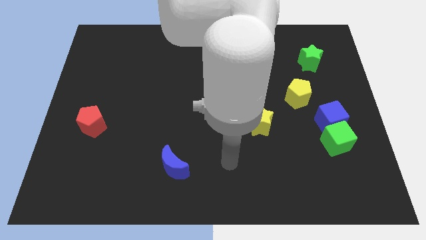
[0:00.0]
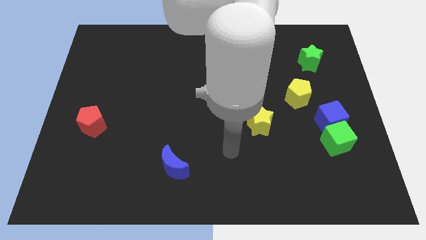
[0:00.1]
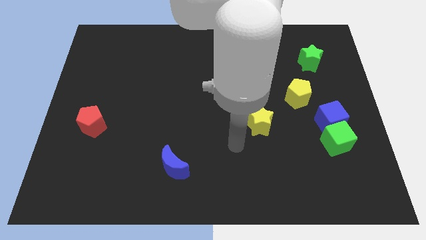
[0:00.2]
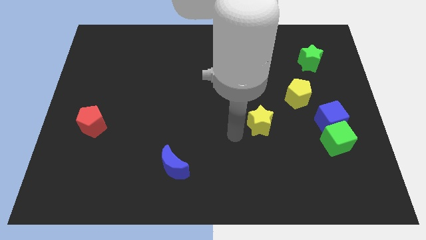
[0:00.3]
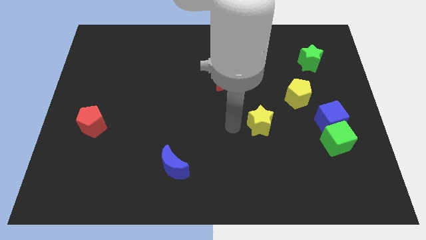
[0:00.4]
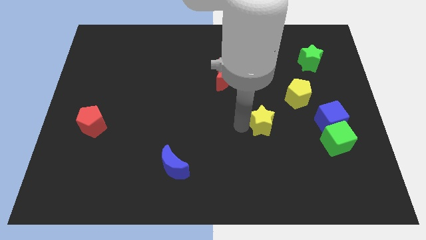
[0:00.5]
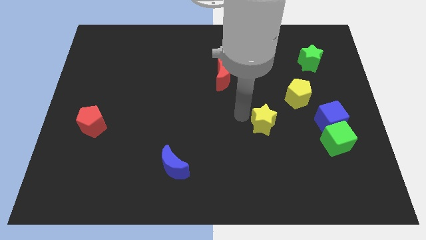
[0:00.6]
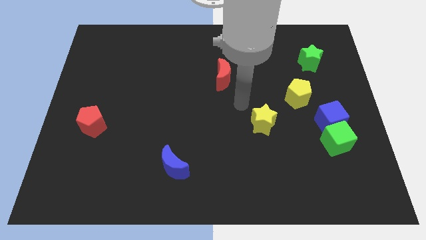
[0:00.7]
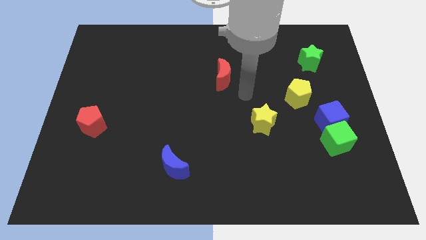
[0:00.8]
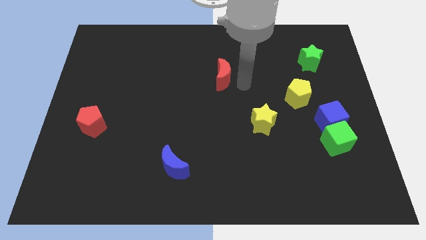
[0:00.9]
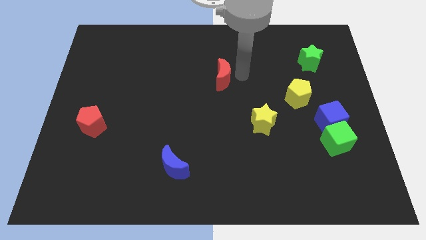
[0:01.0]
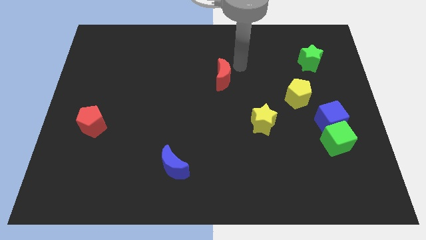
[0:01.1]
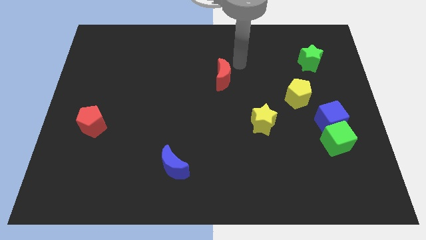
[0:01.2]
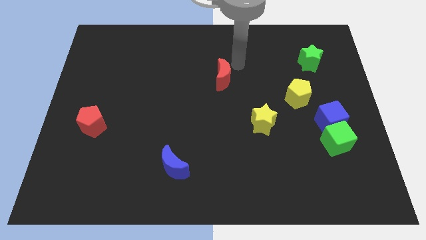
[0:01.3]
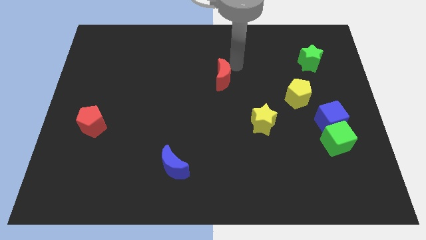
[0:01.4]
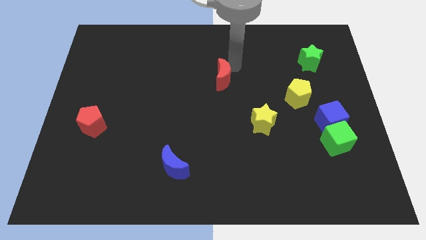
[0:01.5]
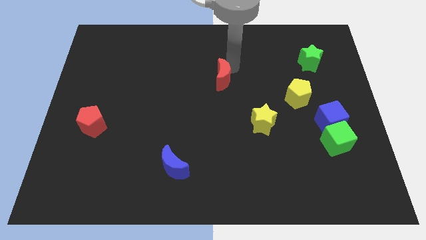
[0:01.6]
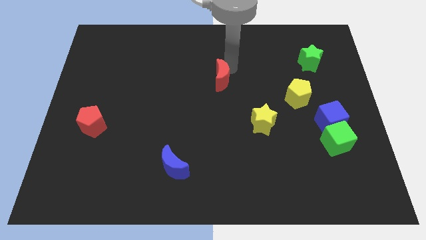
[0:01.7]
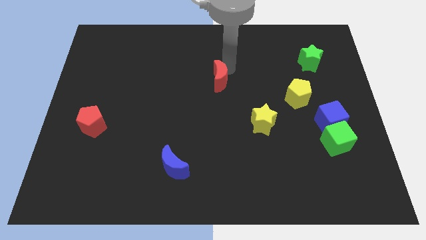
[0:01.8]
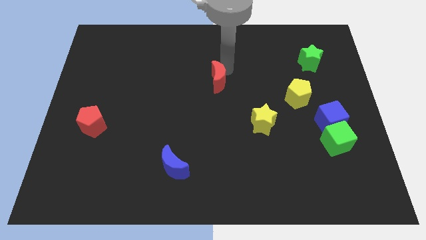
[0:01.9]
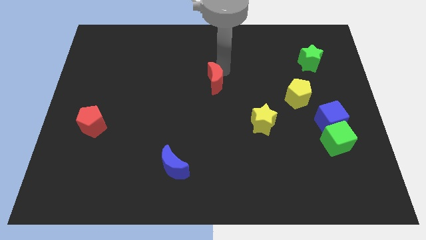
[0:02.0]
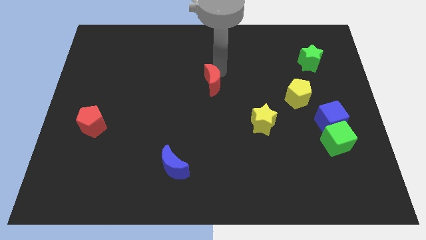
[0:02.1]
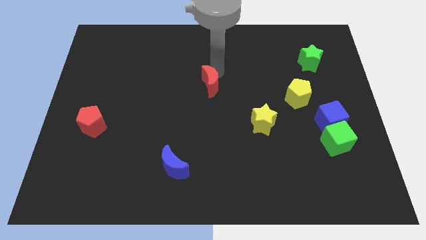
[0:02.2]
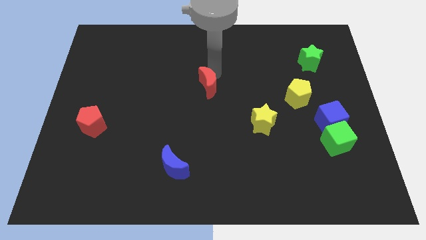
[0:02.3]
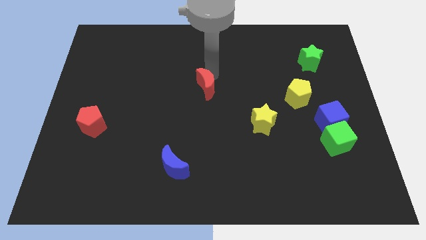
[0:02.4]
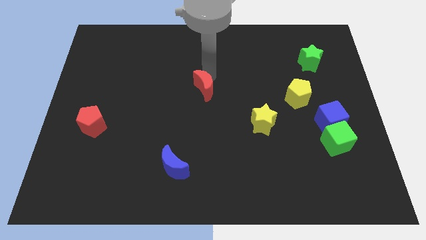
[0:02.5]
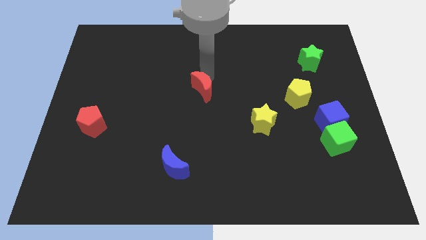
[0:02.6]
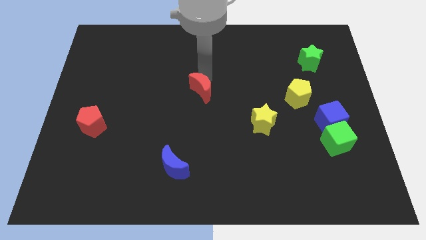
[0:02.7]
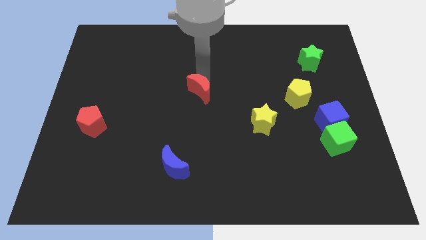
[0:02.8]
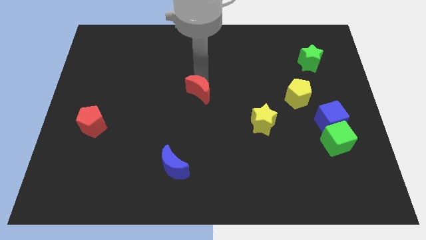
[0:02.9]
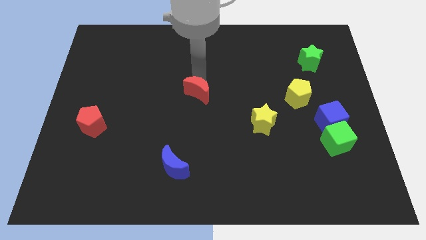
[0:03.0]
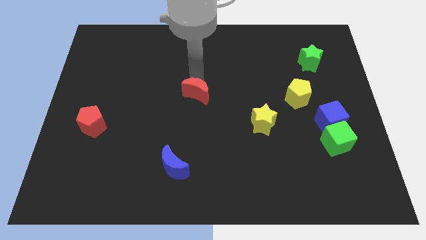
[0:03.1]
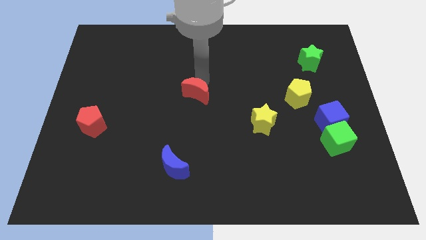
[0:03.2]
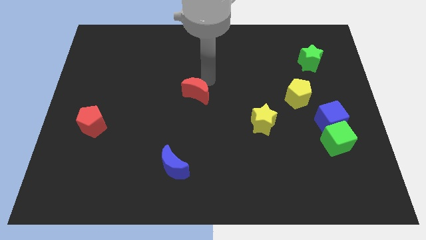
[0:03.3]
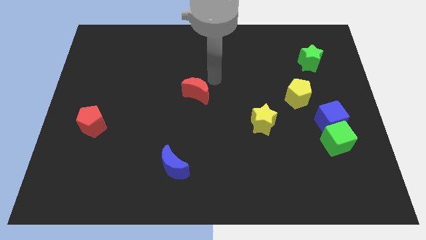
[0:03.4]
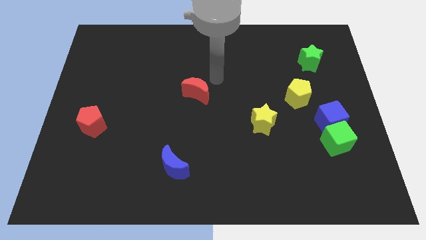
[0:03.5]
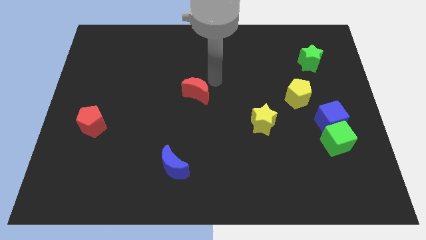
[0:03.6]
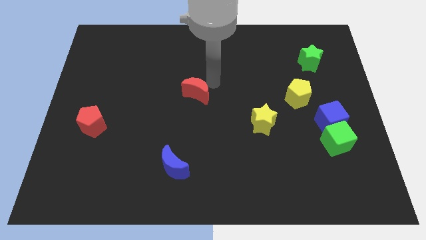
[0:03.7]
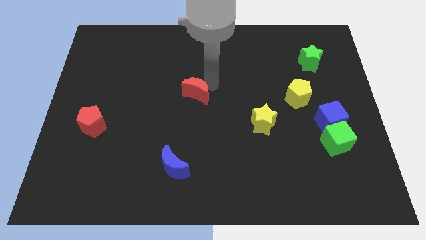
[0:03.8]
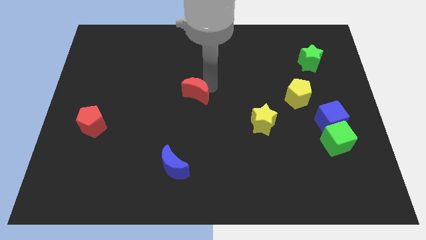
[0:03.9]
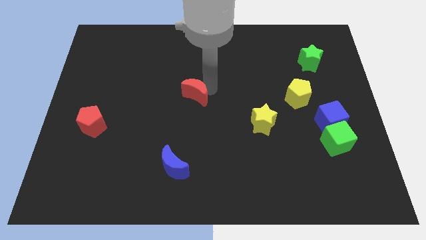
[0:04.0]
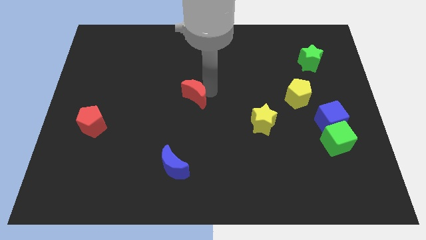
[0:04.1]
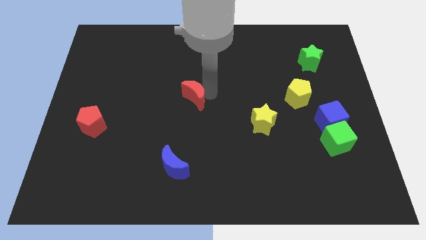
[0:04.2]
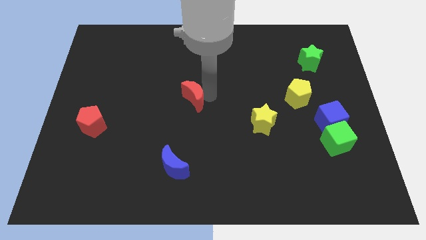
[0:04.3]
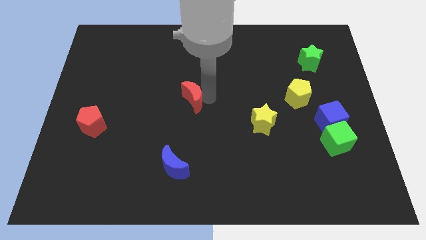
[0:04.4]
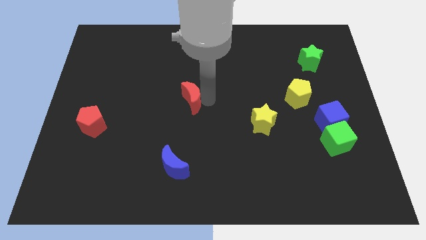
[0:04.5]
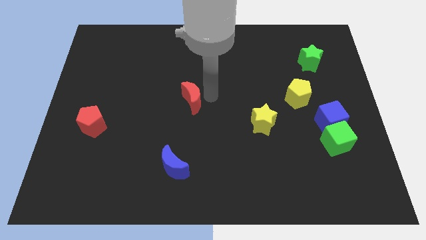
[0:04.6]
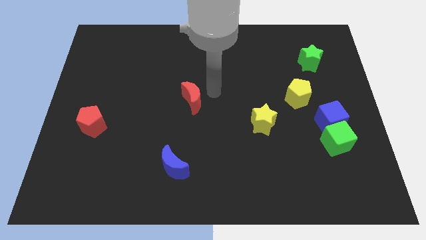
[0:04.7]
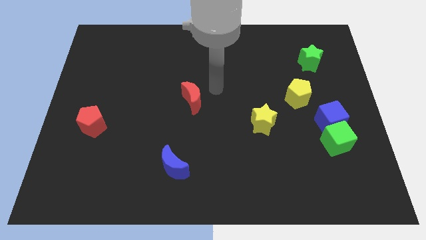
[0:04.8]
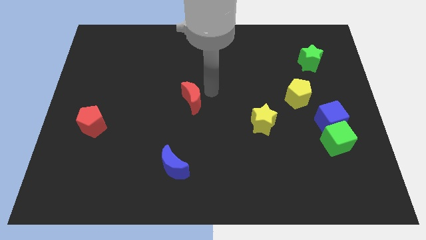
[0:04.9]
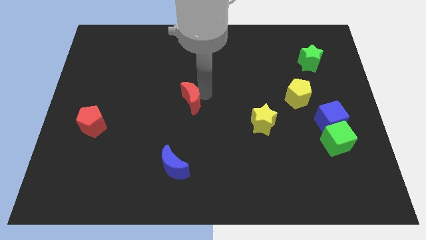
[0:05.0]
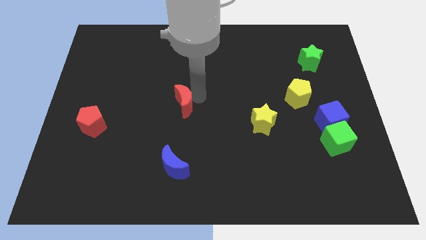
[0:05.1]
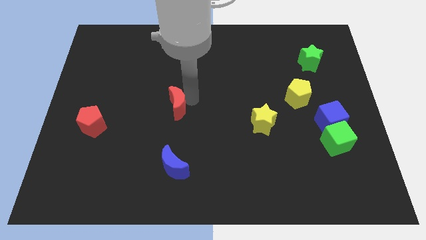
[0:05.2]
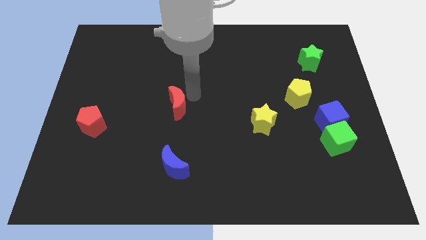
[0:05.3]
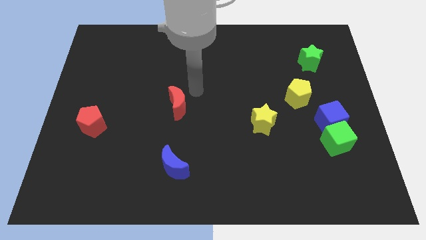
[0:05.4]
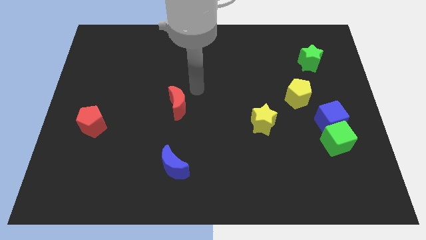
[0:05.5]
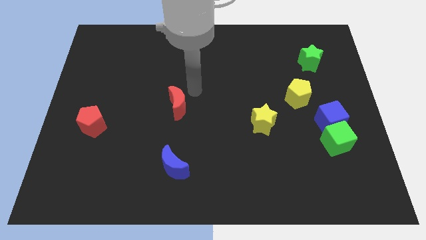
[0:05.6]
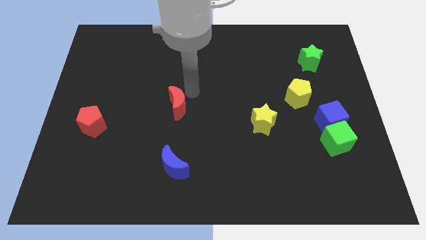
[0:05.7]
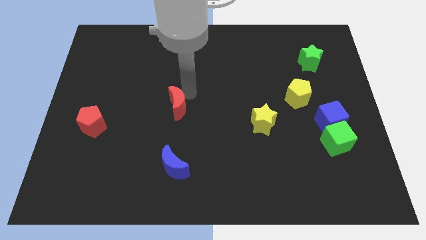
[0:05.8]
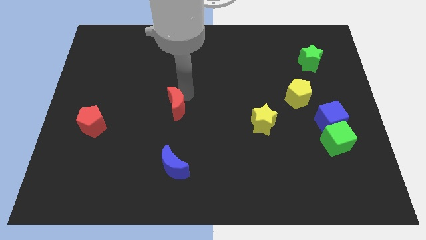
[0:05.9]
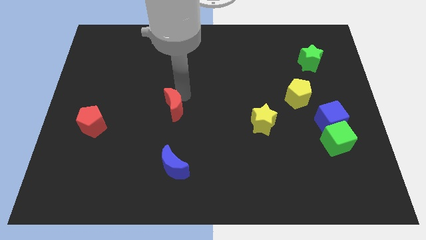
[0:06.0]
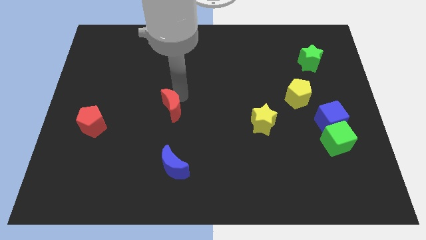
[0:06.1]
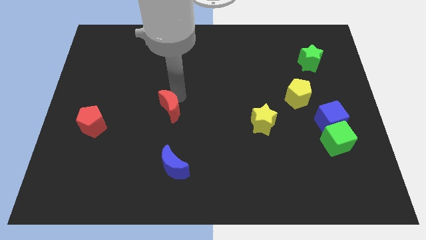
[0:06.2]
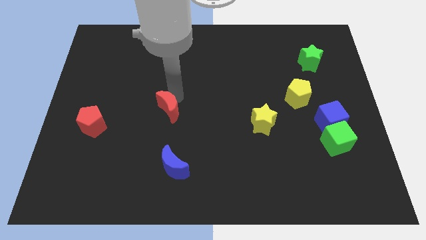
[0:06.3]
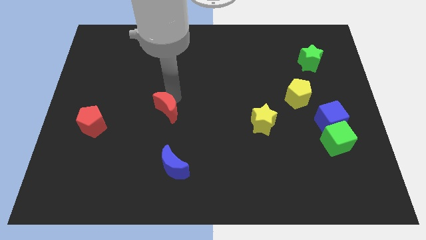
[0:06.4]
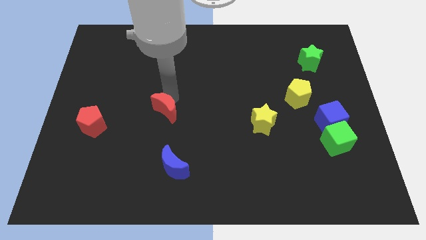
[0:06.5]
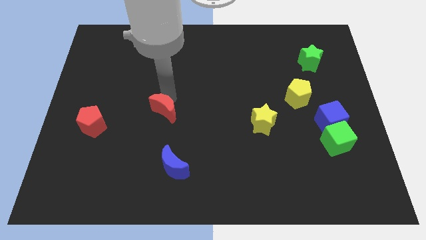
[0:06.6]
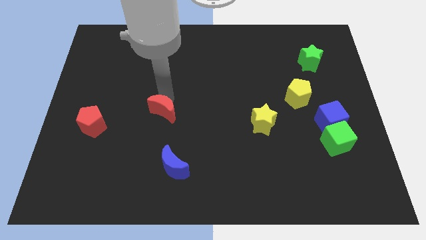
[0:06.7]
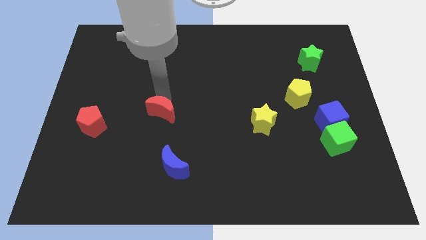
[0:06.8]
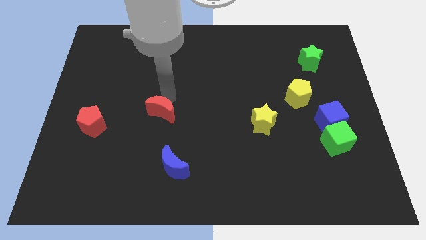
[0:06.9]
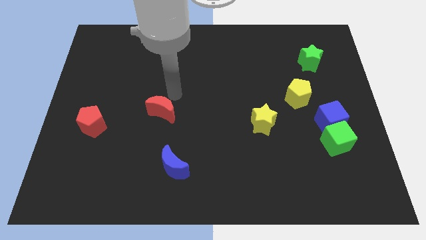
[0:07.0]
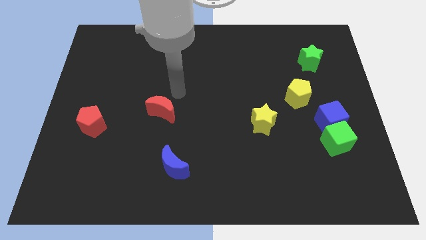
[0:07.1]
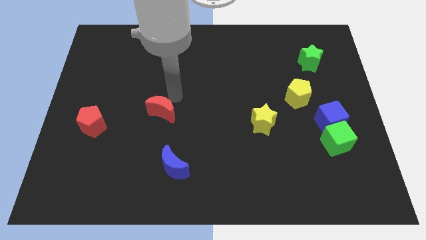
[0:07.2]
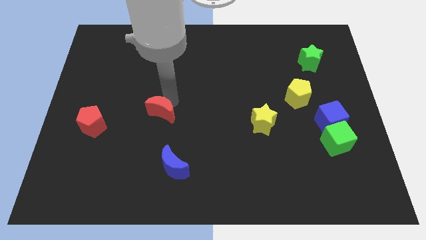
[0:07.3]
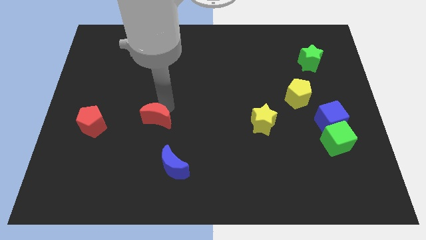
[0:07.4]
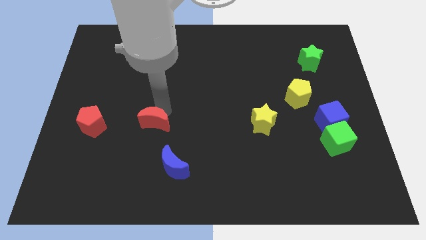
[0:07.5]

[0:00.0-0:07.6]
push the red moon downwards and left

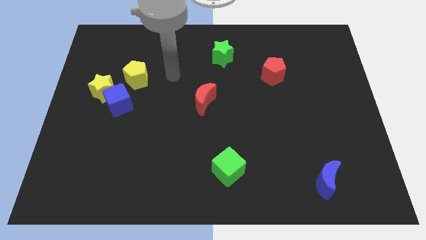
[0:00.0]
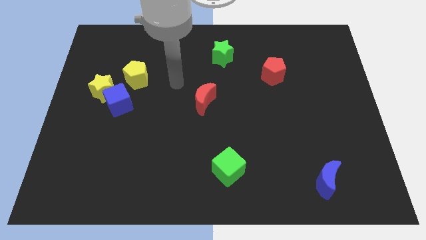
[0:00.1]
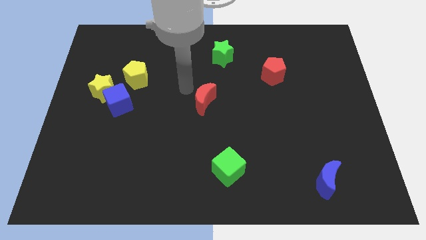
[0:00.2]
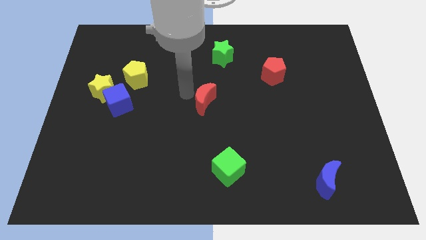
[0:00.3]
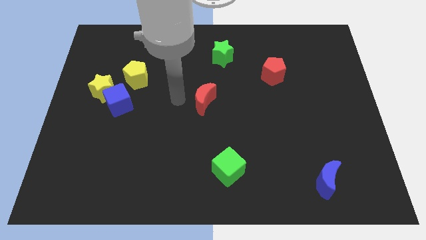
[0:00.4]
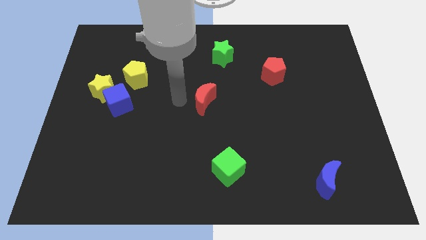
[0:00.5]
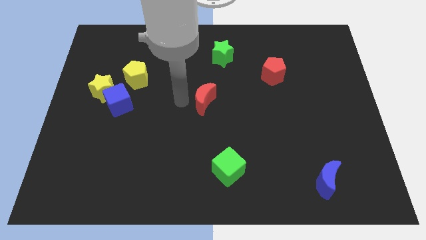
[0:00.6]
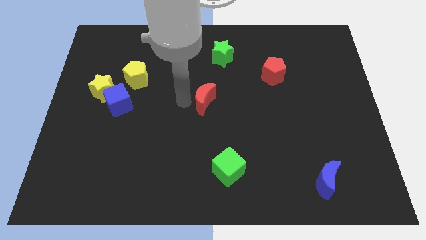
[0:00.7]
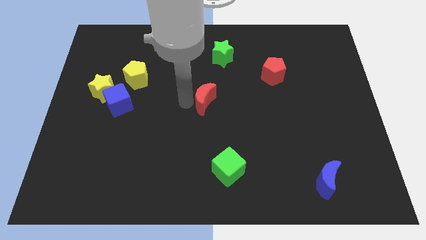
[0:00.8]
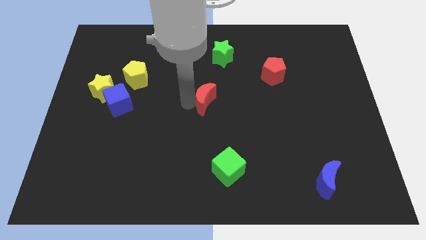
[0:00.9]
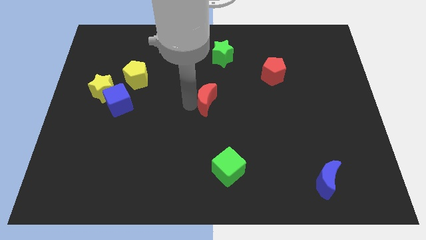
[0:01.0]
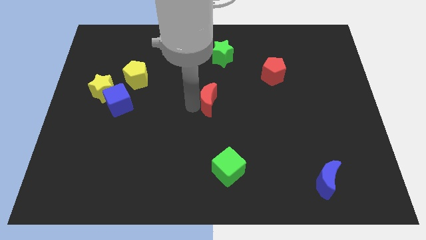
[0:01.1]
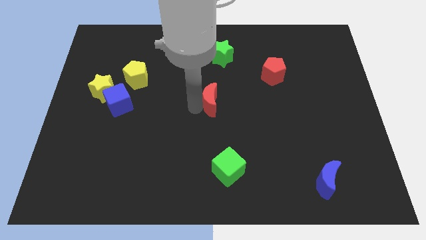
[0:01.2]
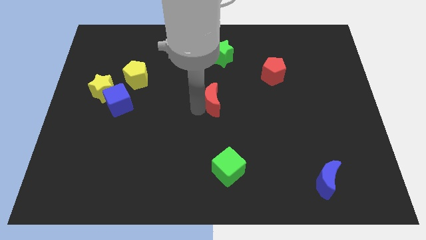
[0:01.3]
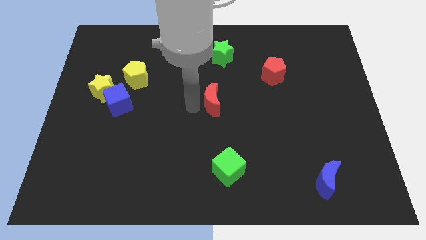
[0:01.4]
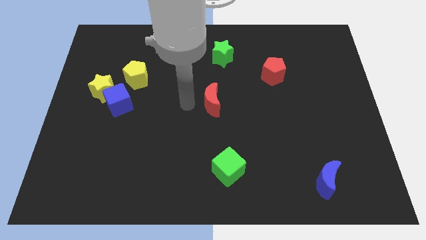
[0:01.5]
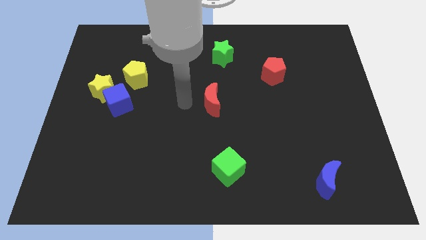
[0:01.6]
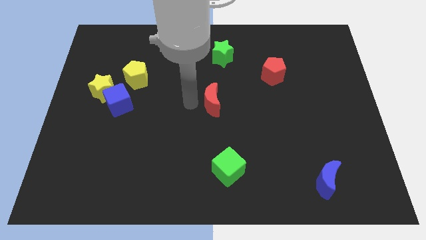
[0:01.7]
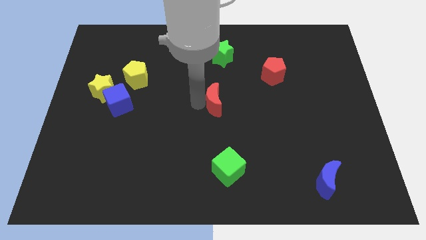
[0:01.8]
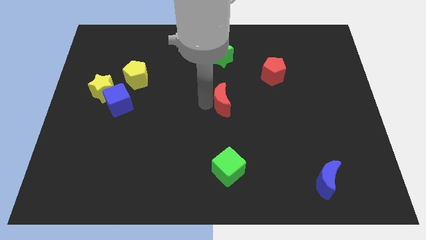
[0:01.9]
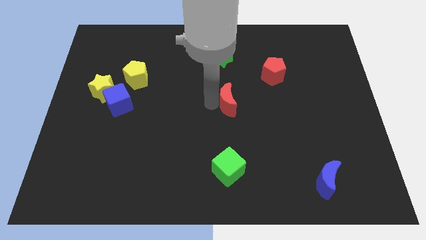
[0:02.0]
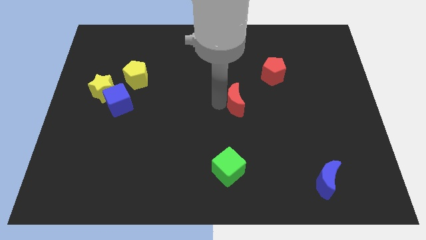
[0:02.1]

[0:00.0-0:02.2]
push the red moon slightly right
